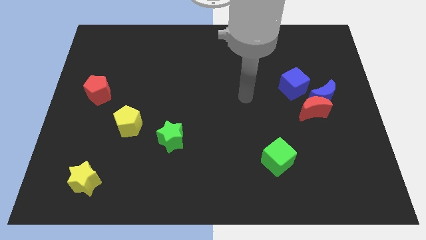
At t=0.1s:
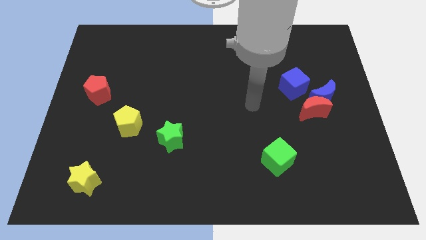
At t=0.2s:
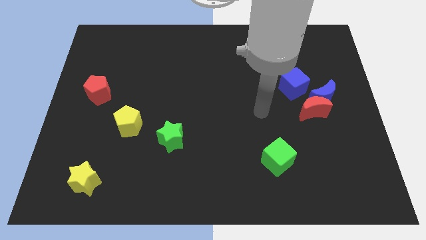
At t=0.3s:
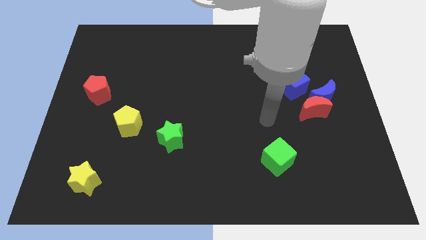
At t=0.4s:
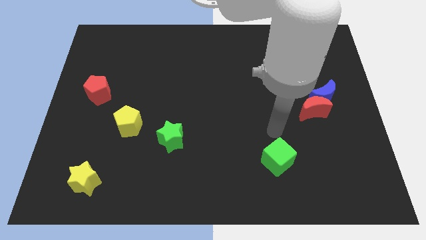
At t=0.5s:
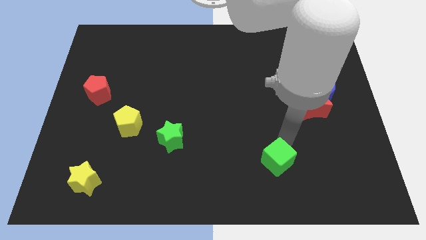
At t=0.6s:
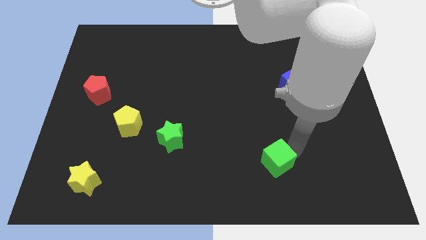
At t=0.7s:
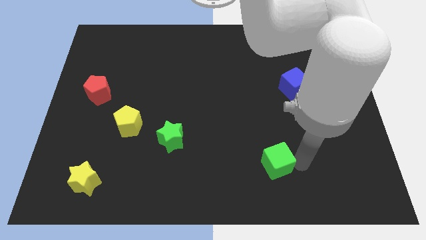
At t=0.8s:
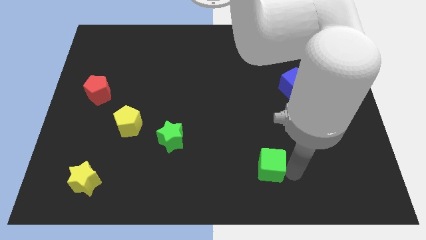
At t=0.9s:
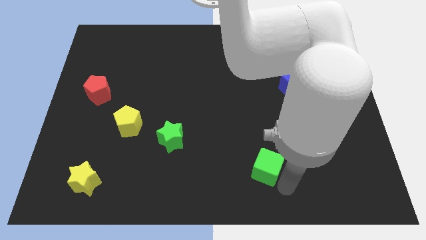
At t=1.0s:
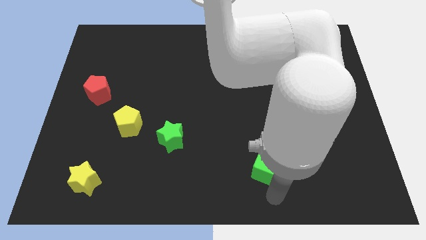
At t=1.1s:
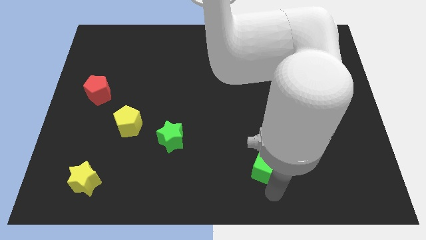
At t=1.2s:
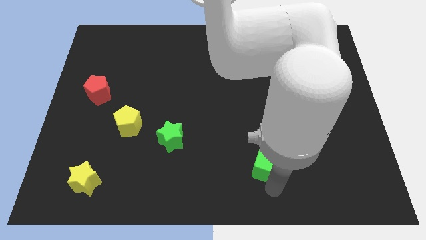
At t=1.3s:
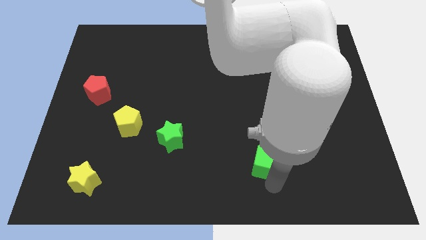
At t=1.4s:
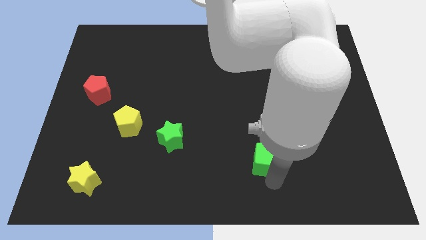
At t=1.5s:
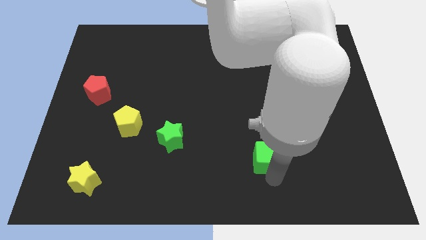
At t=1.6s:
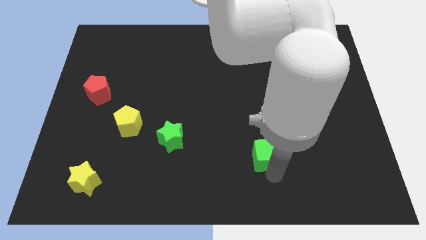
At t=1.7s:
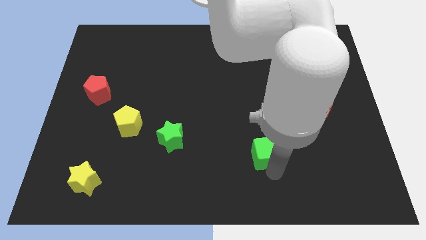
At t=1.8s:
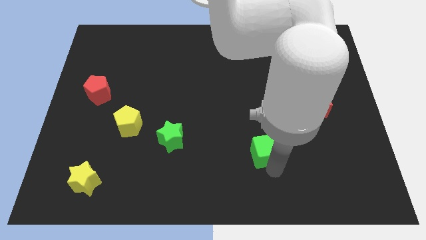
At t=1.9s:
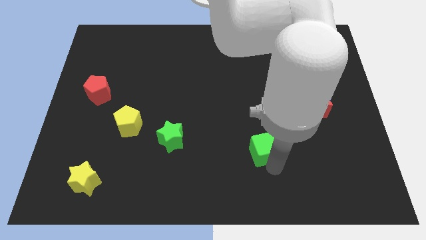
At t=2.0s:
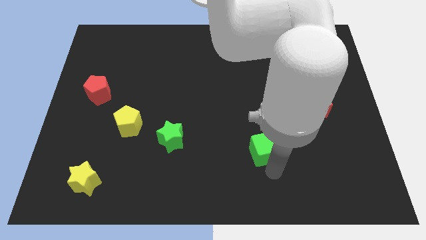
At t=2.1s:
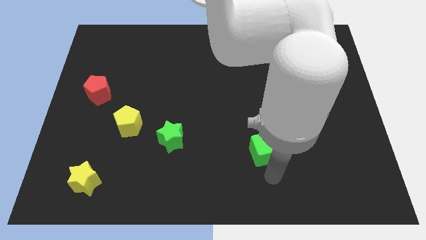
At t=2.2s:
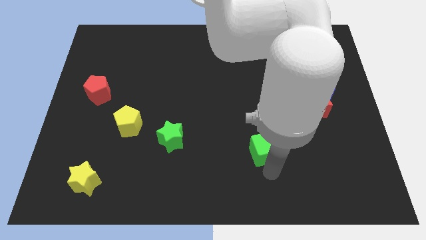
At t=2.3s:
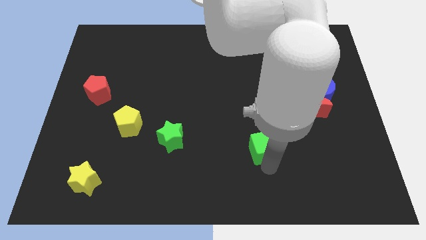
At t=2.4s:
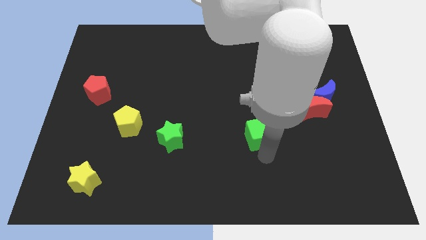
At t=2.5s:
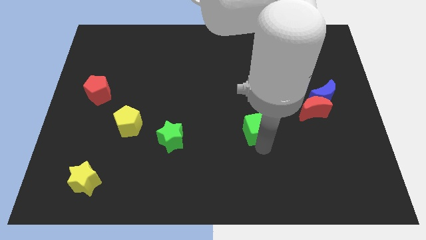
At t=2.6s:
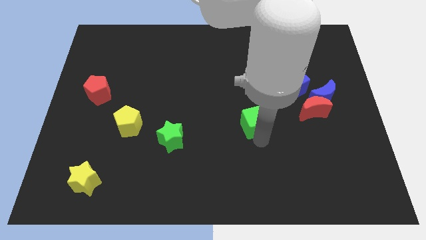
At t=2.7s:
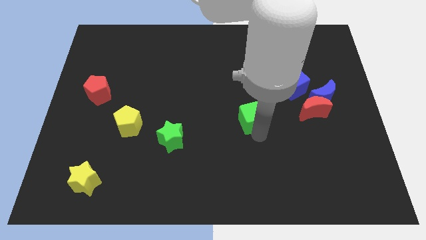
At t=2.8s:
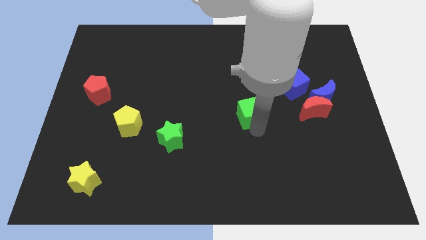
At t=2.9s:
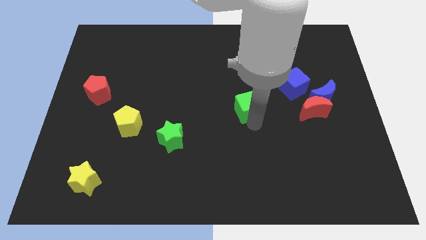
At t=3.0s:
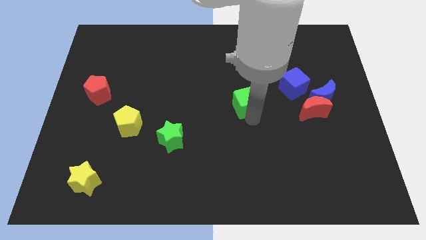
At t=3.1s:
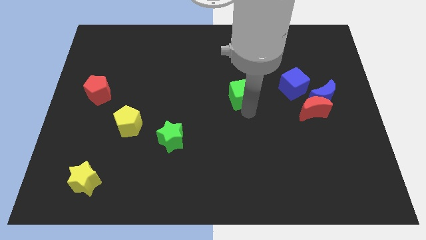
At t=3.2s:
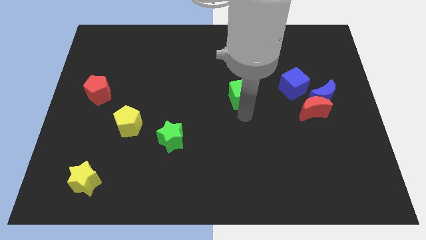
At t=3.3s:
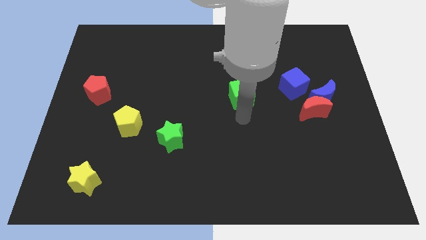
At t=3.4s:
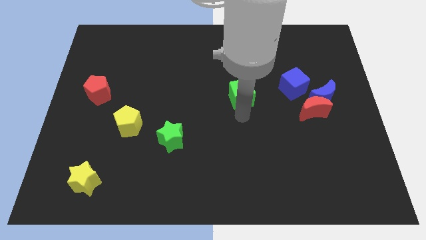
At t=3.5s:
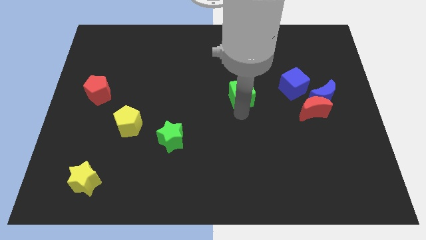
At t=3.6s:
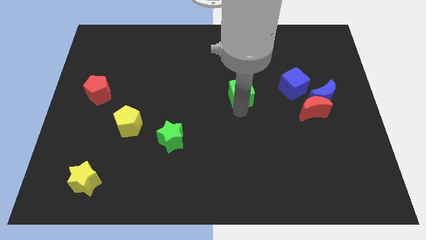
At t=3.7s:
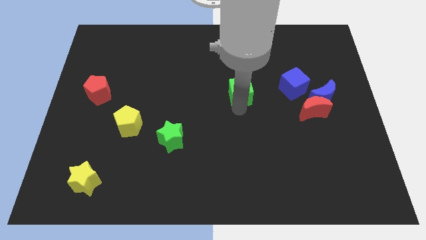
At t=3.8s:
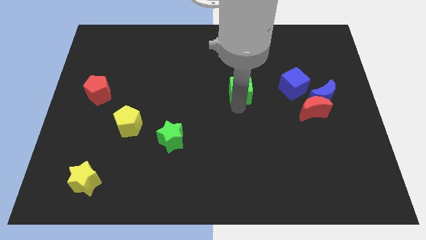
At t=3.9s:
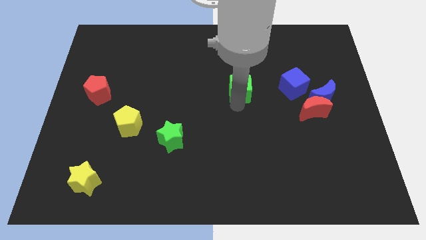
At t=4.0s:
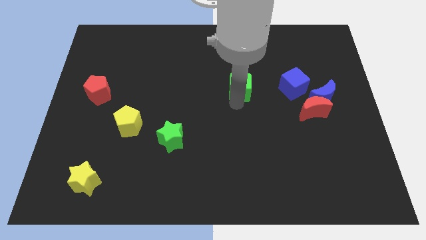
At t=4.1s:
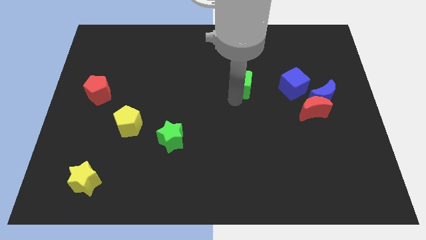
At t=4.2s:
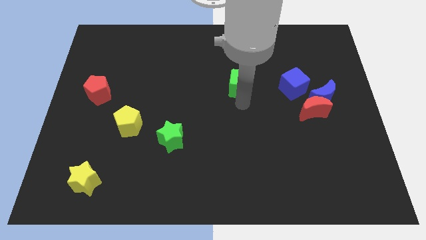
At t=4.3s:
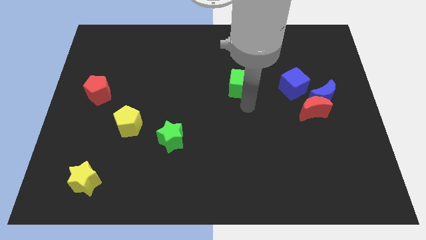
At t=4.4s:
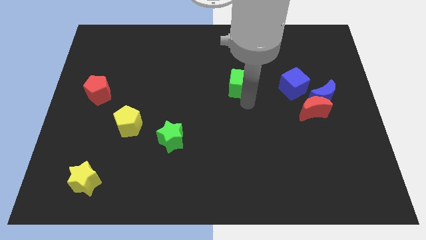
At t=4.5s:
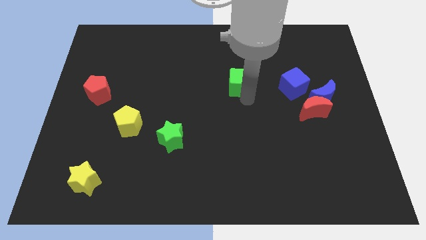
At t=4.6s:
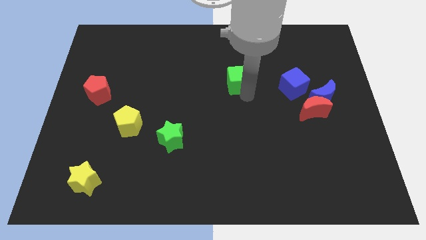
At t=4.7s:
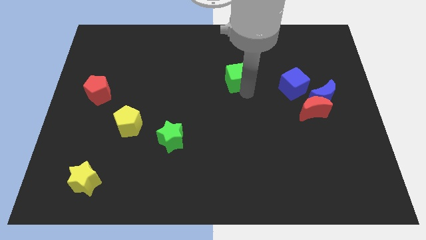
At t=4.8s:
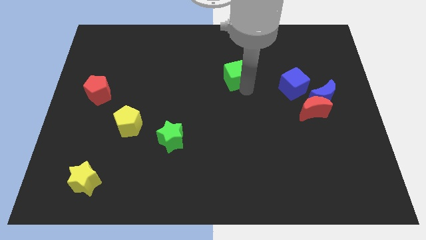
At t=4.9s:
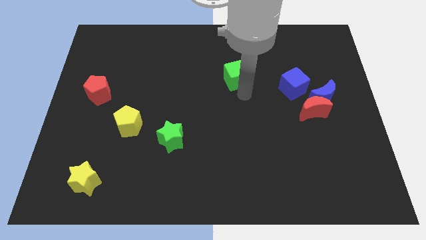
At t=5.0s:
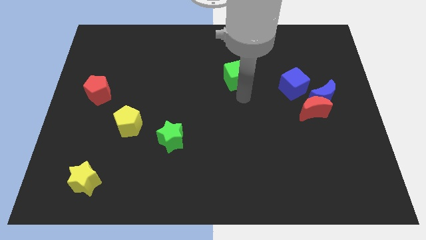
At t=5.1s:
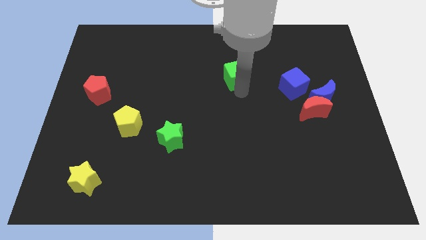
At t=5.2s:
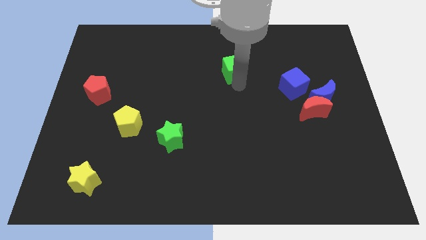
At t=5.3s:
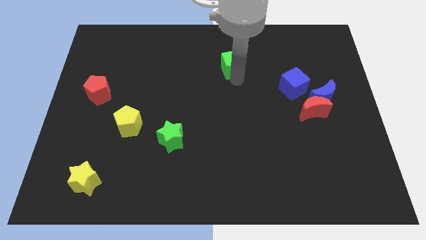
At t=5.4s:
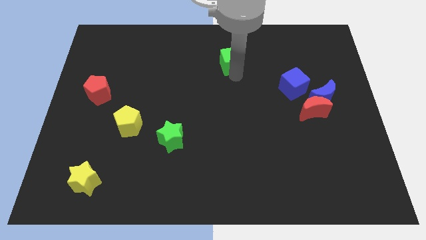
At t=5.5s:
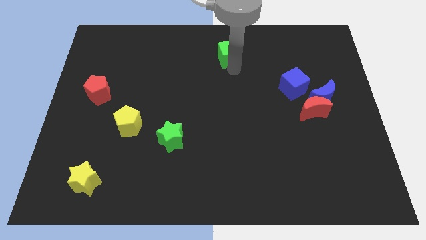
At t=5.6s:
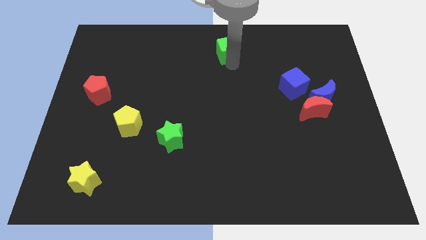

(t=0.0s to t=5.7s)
move the green cube to the towards your base
